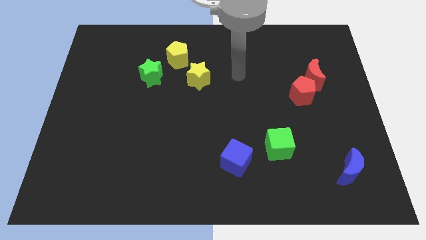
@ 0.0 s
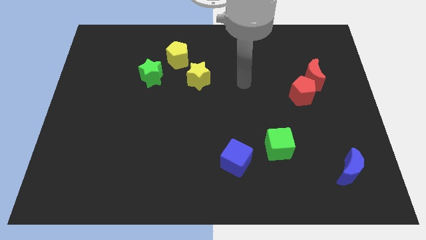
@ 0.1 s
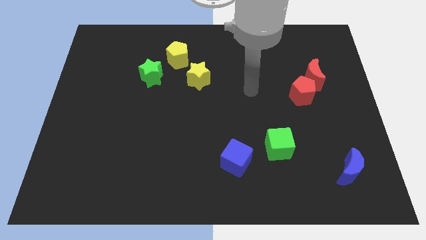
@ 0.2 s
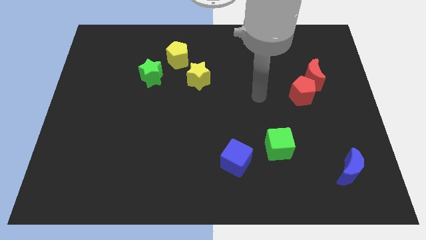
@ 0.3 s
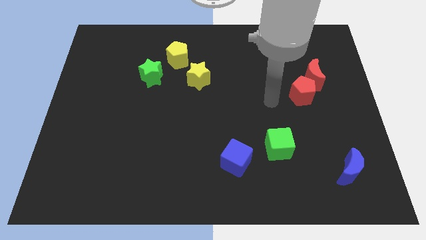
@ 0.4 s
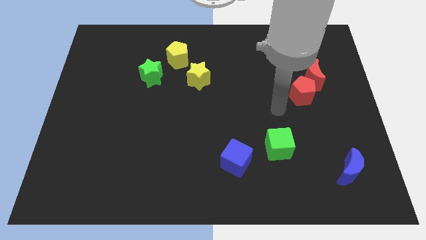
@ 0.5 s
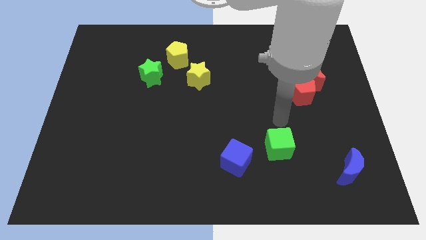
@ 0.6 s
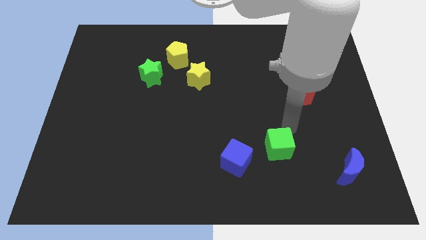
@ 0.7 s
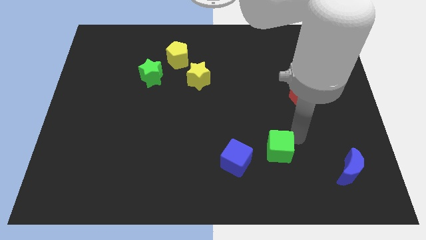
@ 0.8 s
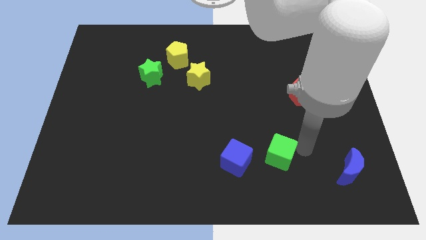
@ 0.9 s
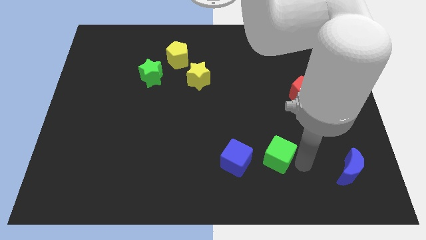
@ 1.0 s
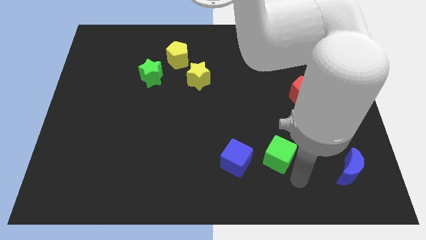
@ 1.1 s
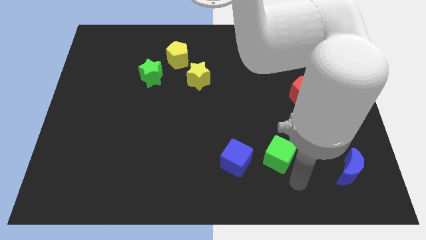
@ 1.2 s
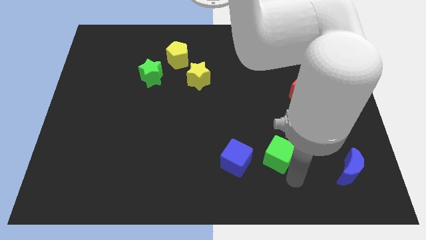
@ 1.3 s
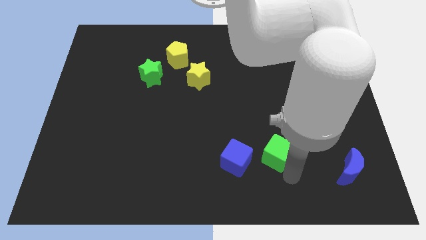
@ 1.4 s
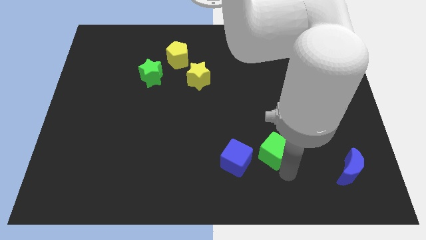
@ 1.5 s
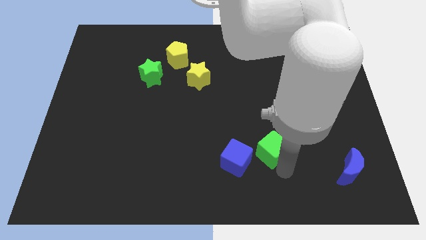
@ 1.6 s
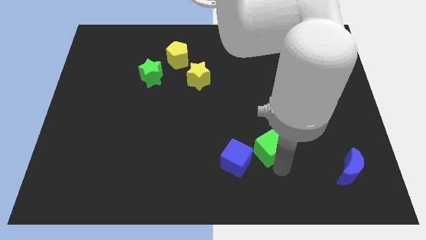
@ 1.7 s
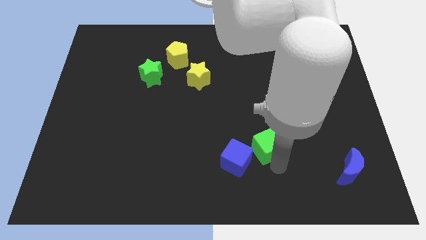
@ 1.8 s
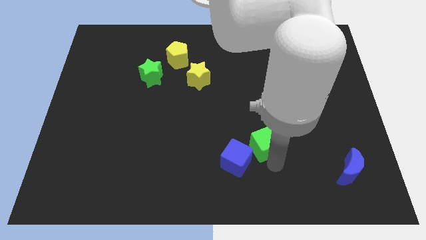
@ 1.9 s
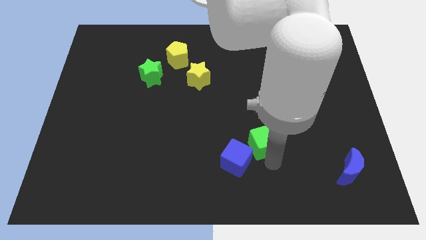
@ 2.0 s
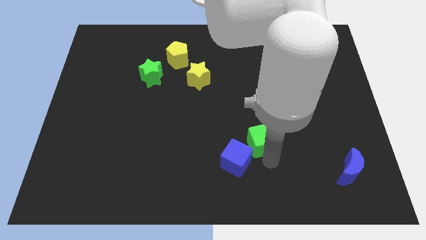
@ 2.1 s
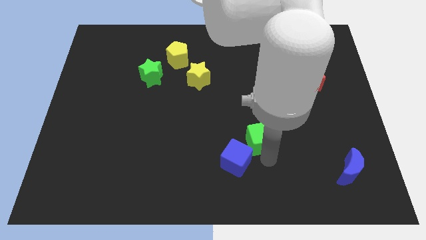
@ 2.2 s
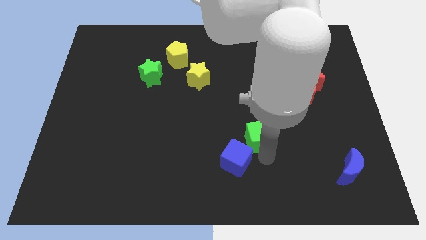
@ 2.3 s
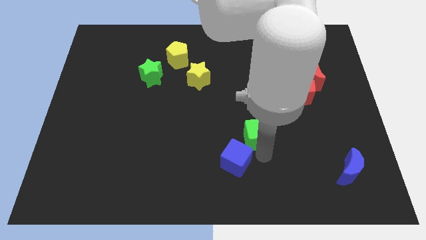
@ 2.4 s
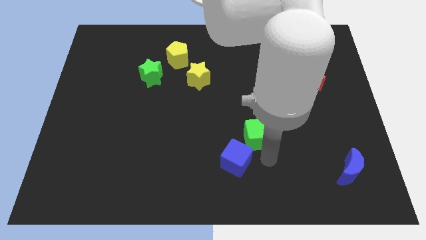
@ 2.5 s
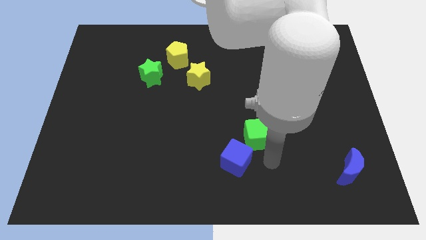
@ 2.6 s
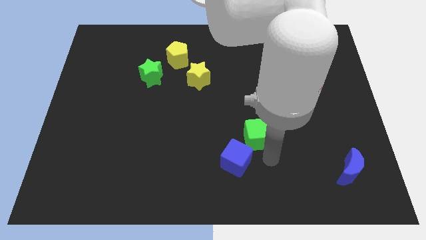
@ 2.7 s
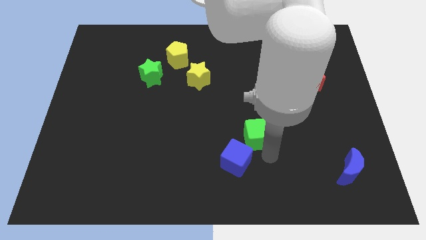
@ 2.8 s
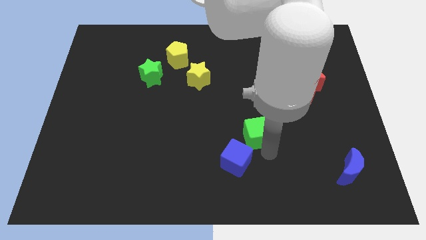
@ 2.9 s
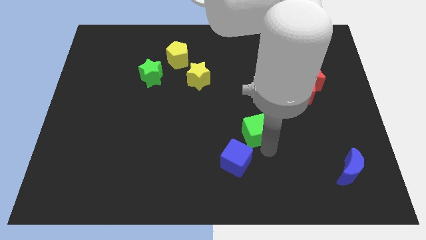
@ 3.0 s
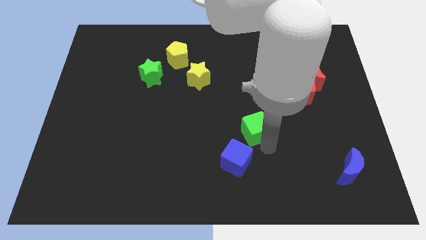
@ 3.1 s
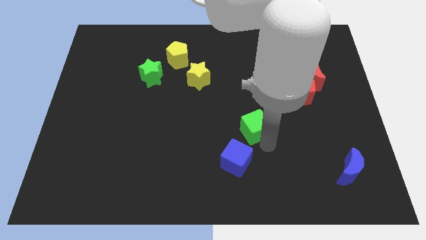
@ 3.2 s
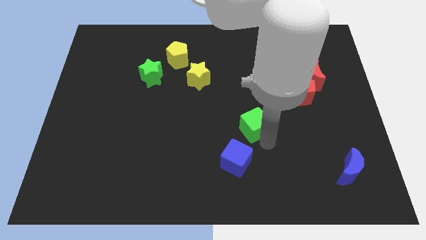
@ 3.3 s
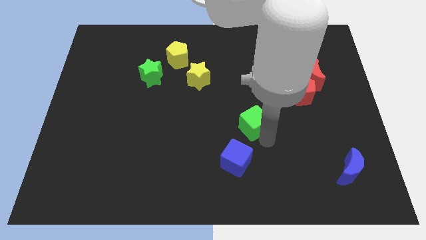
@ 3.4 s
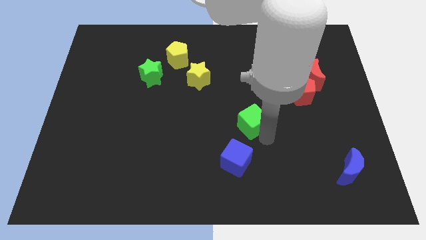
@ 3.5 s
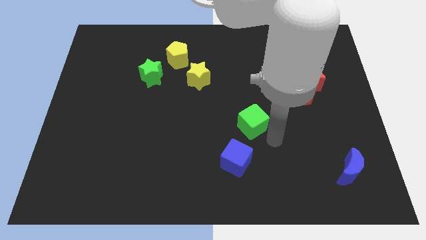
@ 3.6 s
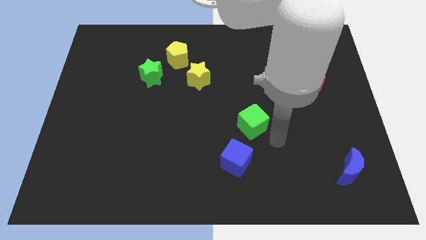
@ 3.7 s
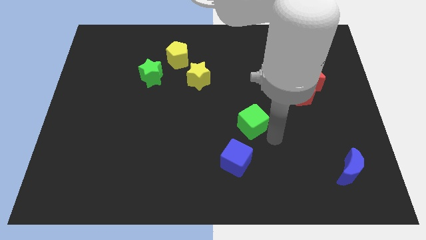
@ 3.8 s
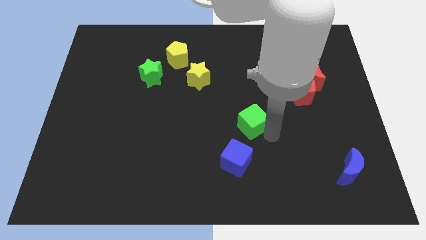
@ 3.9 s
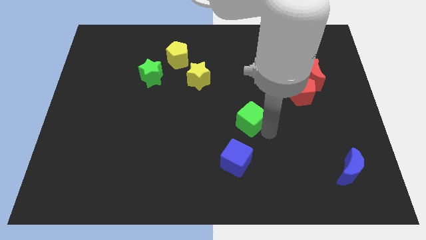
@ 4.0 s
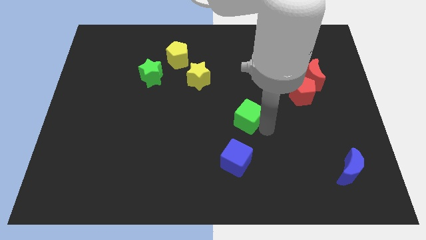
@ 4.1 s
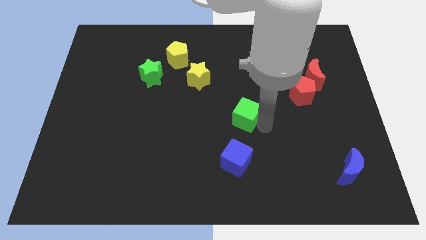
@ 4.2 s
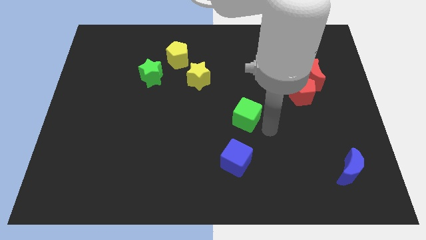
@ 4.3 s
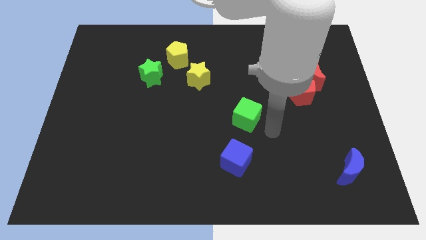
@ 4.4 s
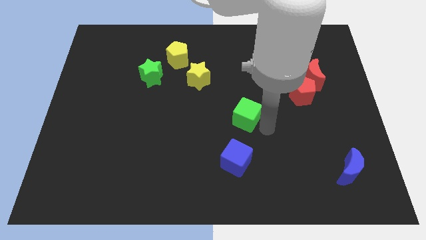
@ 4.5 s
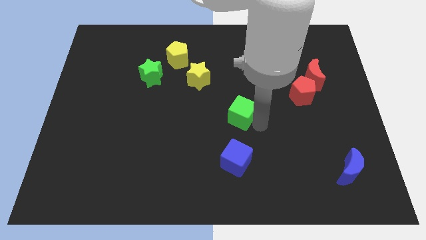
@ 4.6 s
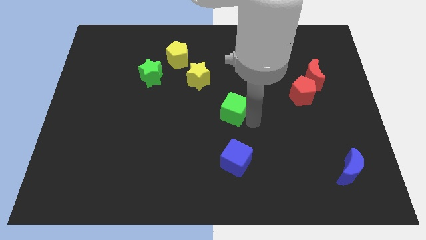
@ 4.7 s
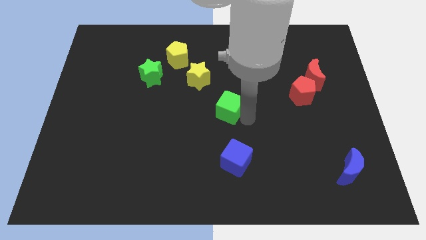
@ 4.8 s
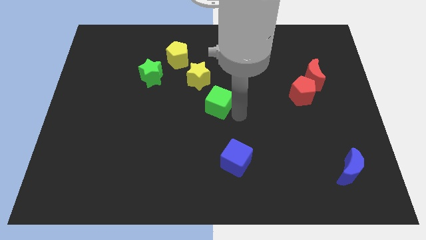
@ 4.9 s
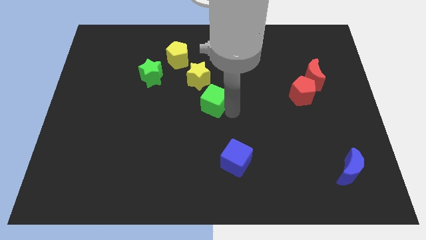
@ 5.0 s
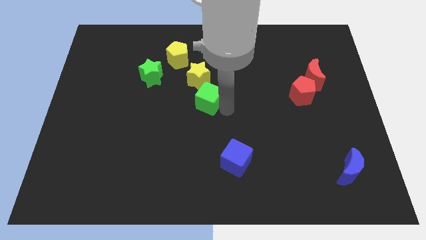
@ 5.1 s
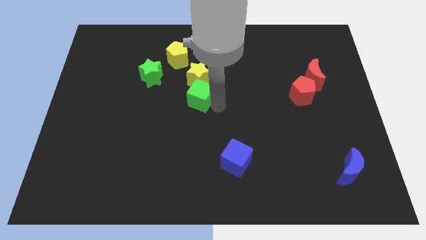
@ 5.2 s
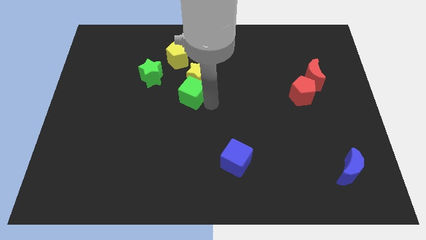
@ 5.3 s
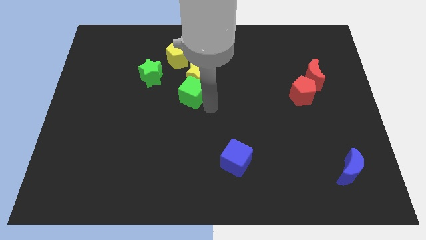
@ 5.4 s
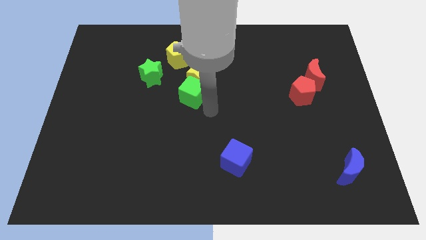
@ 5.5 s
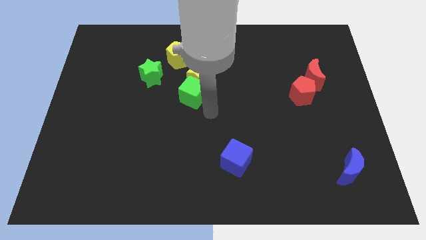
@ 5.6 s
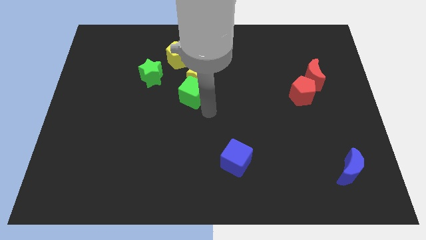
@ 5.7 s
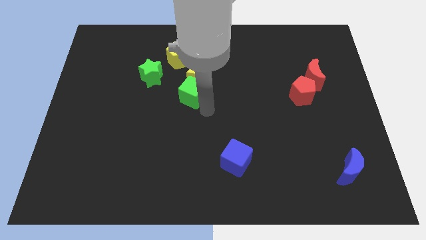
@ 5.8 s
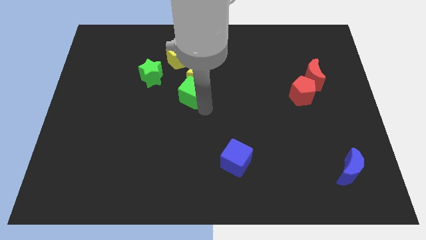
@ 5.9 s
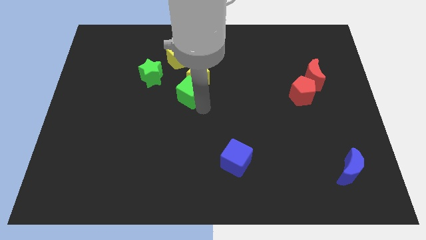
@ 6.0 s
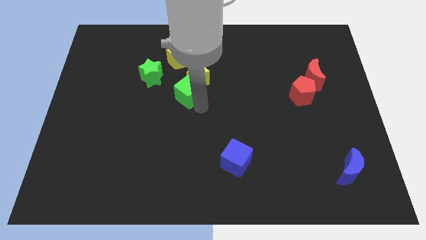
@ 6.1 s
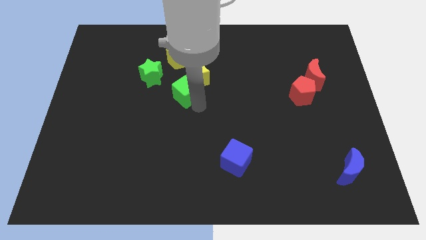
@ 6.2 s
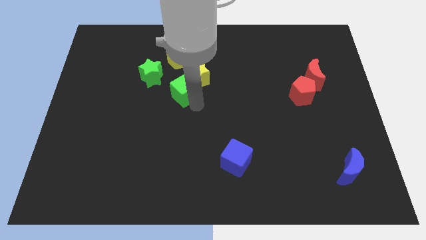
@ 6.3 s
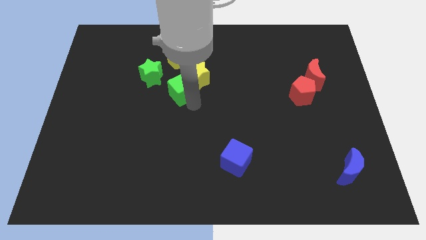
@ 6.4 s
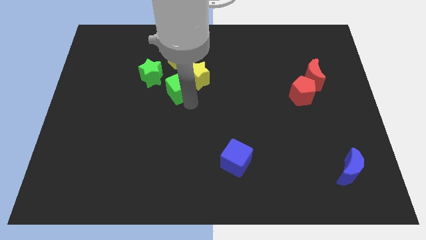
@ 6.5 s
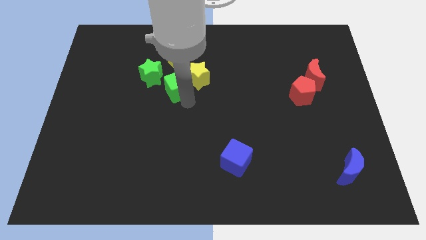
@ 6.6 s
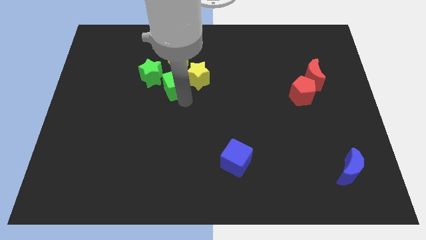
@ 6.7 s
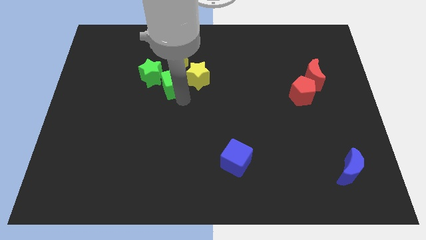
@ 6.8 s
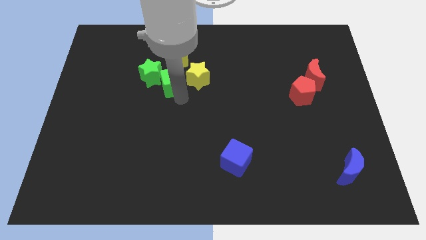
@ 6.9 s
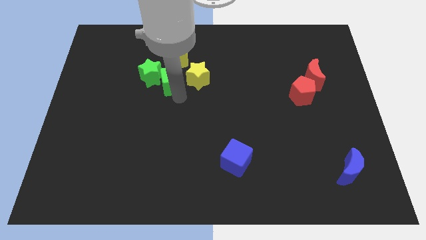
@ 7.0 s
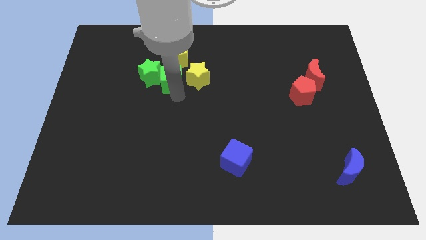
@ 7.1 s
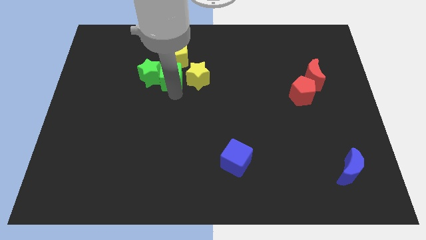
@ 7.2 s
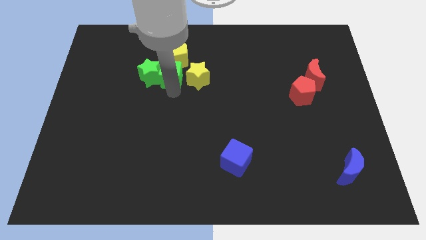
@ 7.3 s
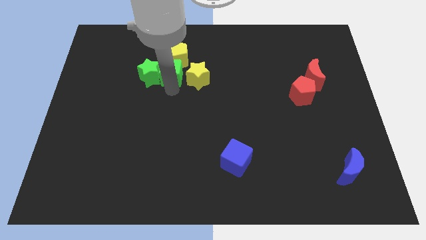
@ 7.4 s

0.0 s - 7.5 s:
push the green cube towards the yellow pentagon

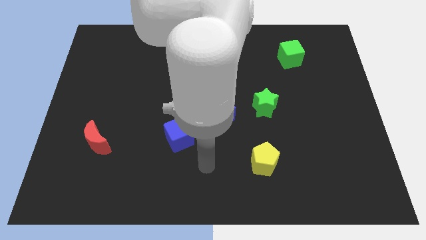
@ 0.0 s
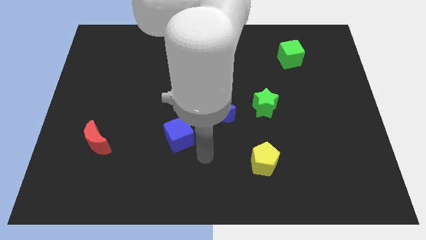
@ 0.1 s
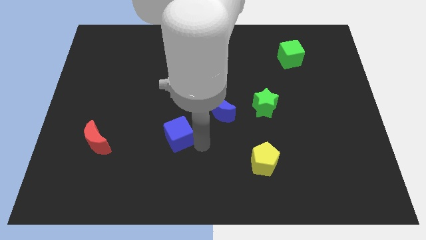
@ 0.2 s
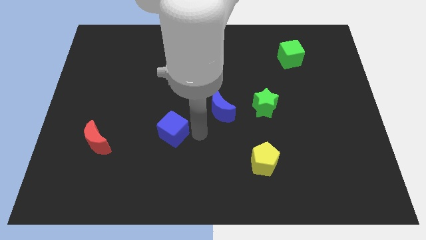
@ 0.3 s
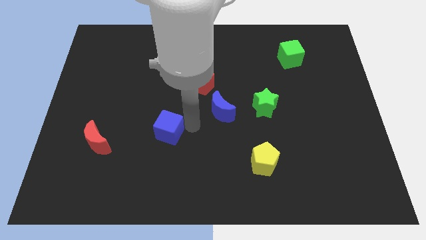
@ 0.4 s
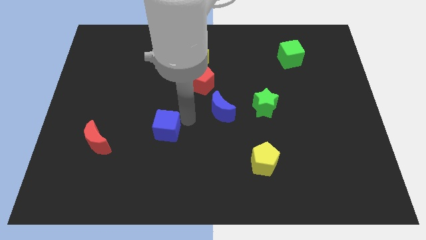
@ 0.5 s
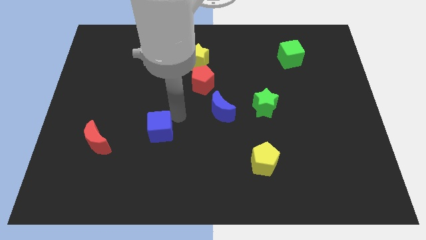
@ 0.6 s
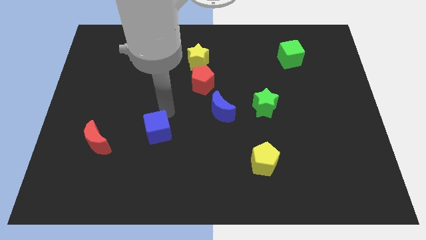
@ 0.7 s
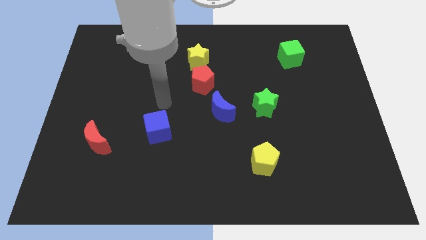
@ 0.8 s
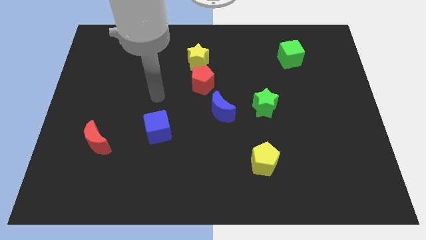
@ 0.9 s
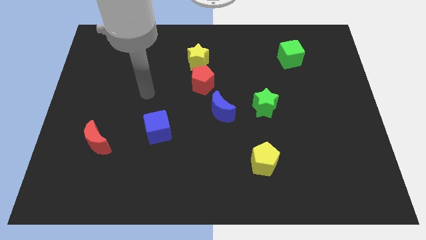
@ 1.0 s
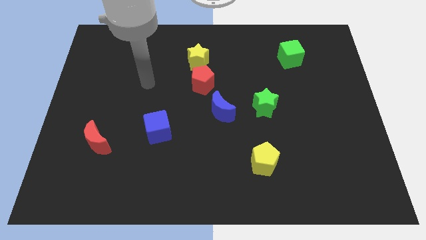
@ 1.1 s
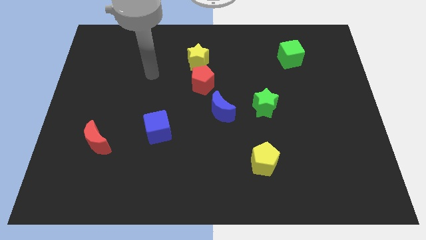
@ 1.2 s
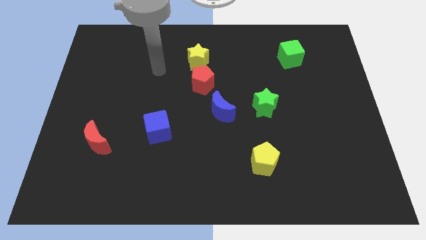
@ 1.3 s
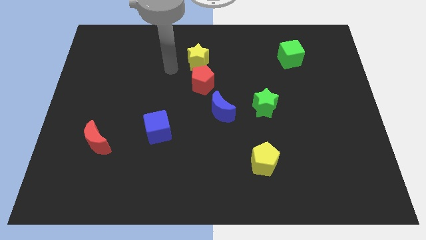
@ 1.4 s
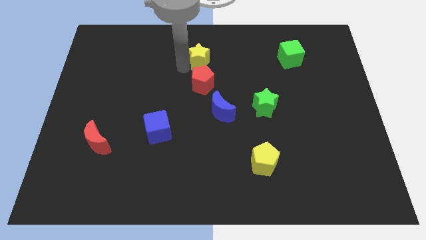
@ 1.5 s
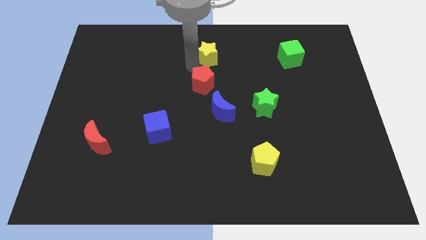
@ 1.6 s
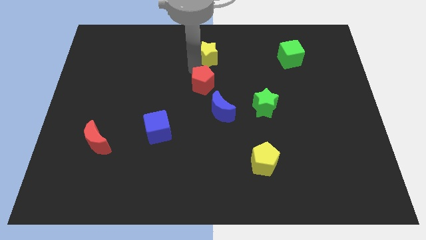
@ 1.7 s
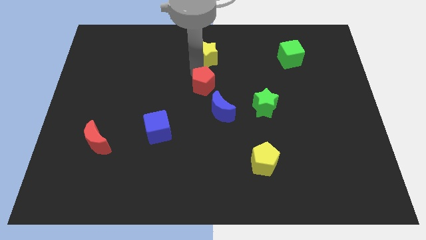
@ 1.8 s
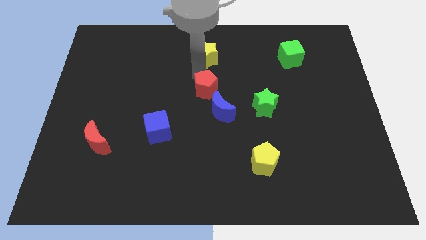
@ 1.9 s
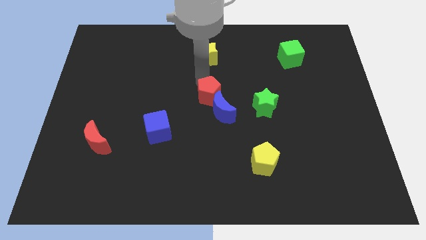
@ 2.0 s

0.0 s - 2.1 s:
slide the red pentagon next to the blue moon
